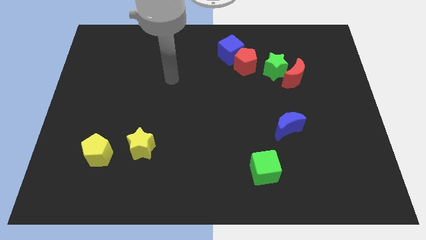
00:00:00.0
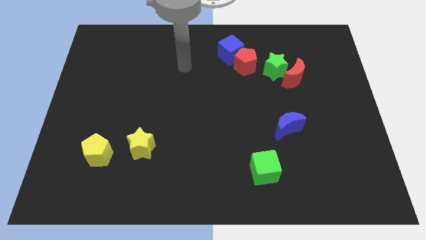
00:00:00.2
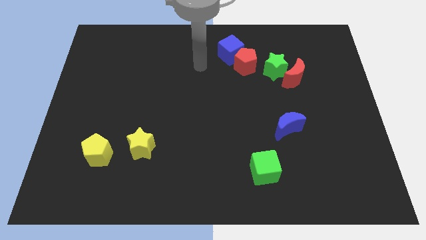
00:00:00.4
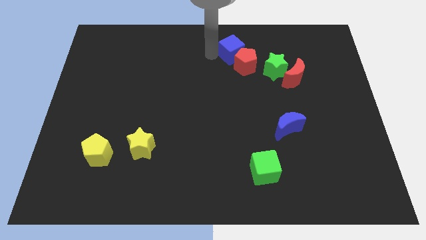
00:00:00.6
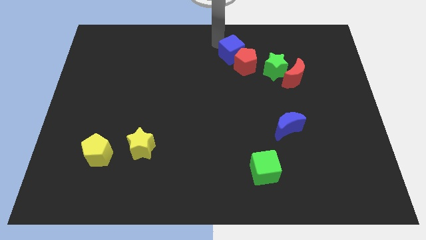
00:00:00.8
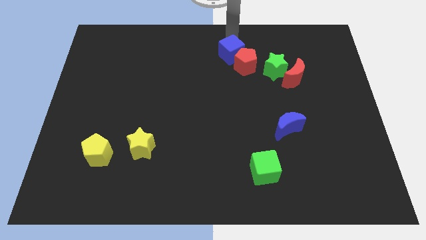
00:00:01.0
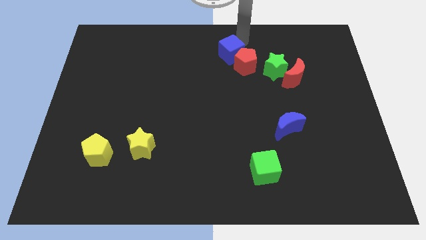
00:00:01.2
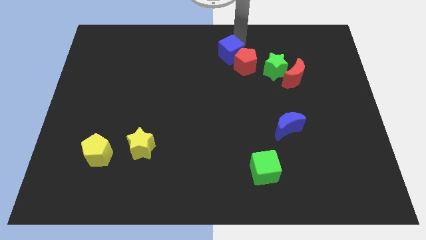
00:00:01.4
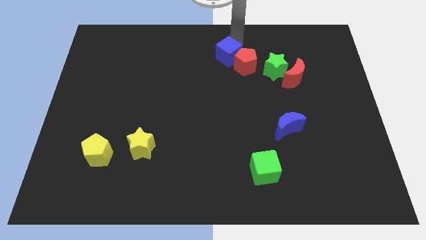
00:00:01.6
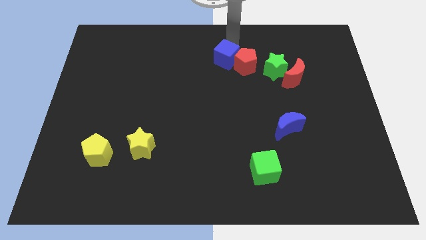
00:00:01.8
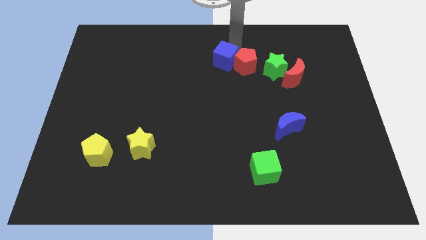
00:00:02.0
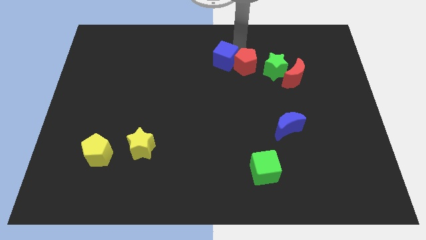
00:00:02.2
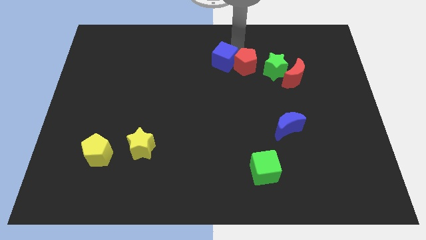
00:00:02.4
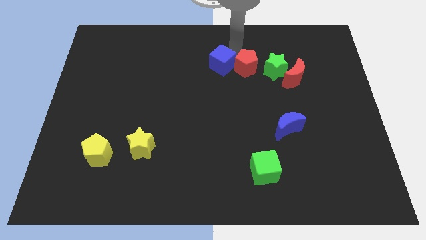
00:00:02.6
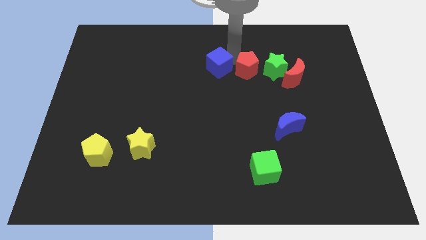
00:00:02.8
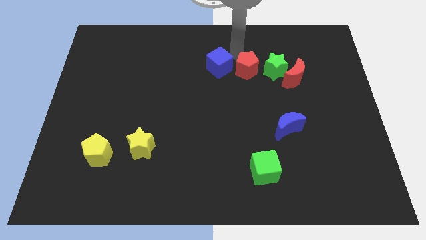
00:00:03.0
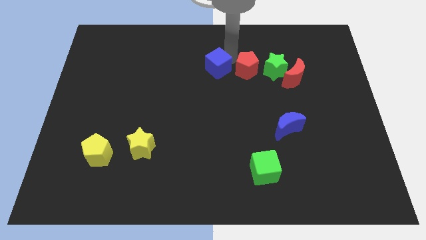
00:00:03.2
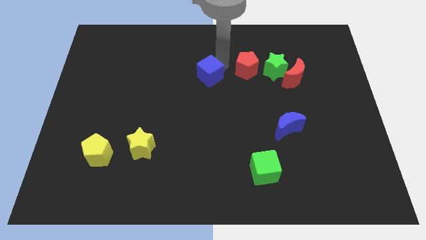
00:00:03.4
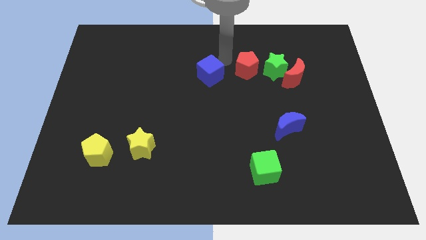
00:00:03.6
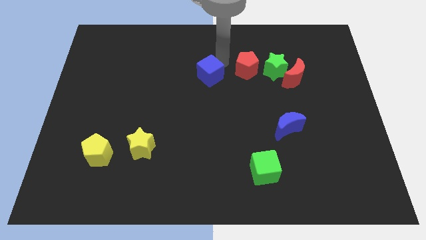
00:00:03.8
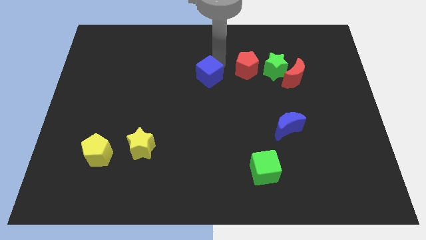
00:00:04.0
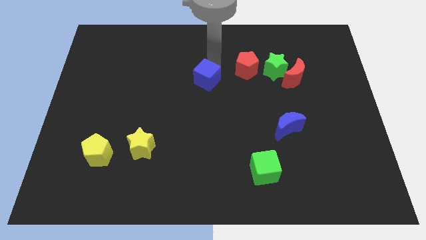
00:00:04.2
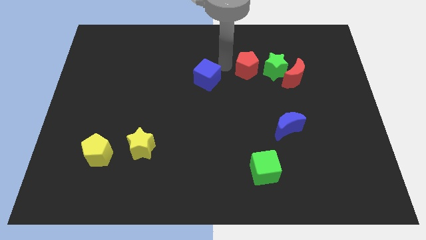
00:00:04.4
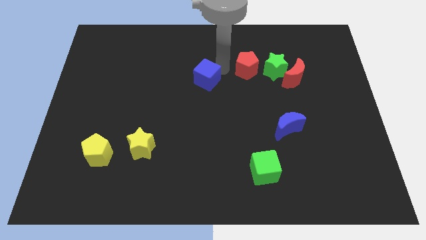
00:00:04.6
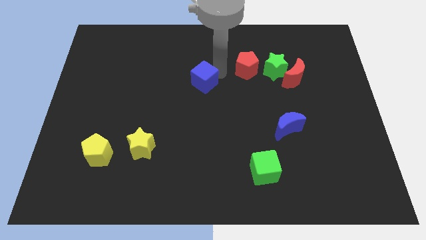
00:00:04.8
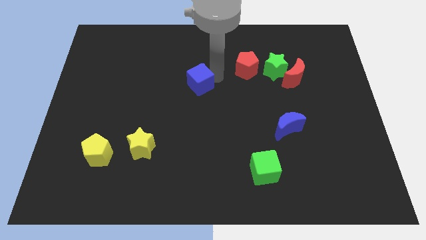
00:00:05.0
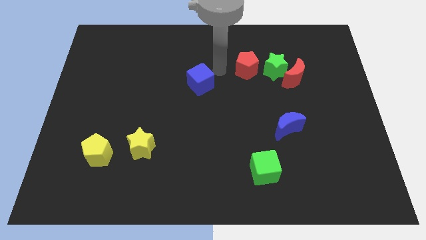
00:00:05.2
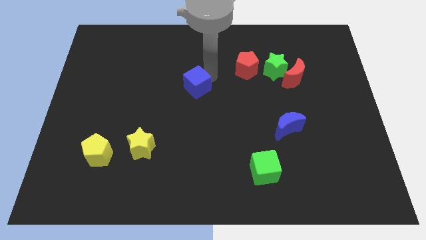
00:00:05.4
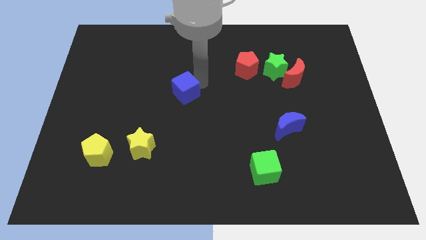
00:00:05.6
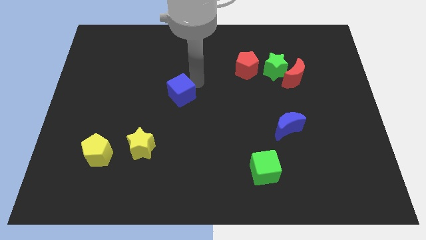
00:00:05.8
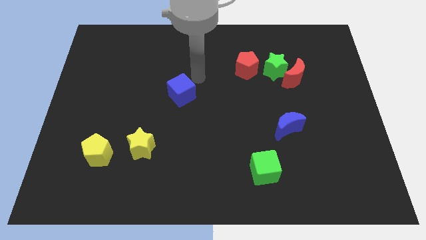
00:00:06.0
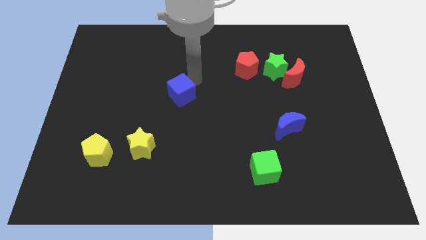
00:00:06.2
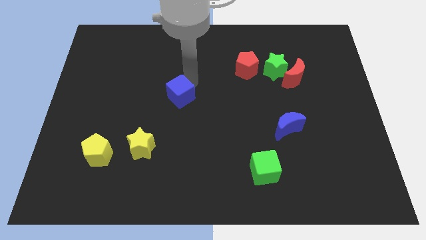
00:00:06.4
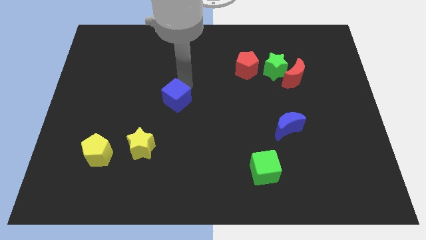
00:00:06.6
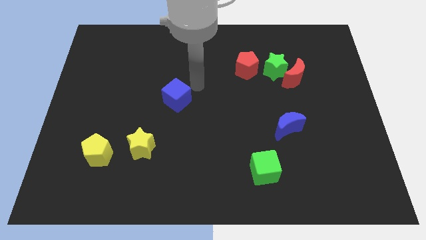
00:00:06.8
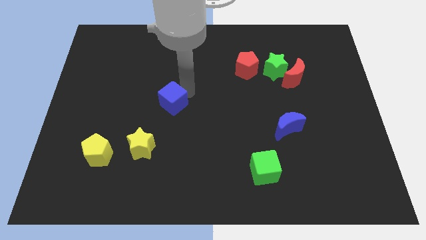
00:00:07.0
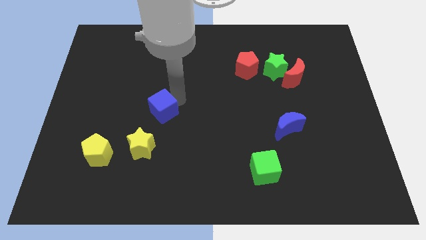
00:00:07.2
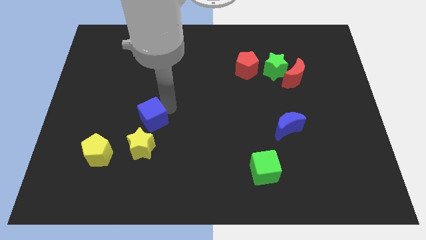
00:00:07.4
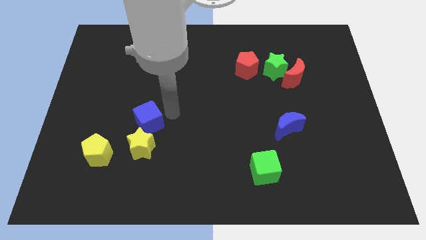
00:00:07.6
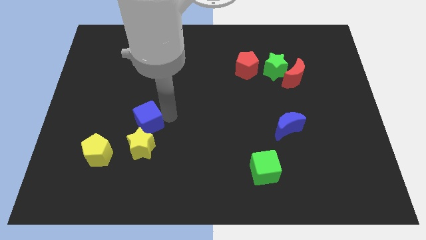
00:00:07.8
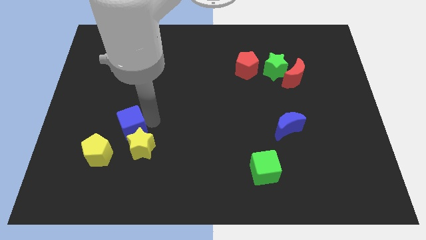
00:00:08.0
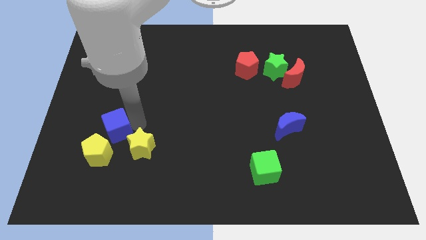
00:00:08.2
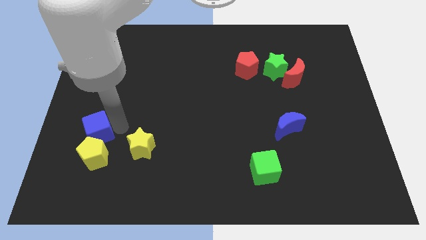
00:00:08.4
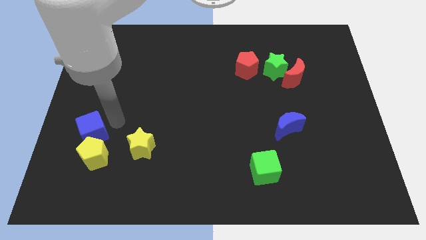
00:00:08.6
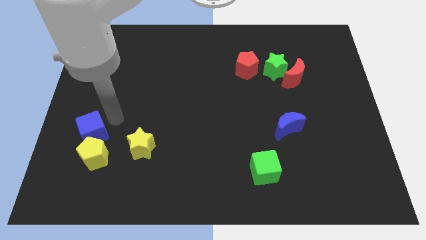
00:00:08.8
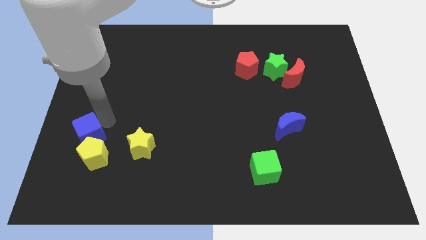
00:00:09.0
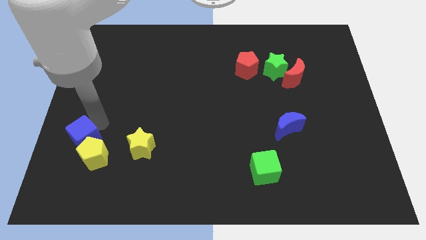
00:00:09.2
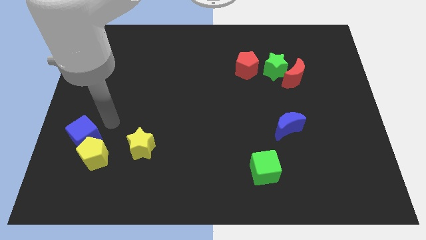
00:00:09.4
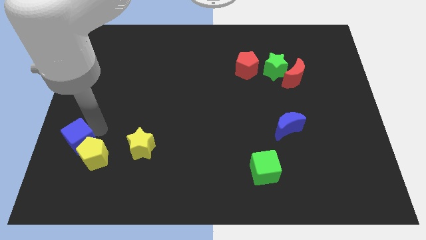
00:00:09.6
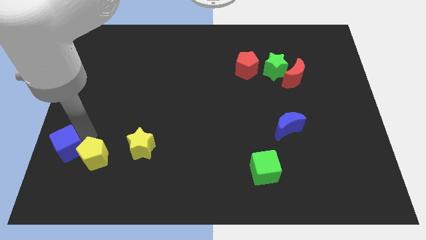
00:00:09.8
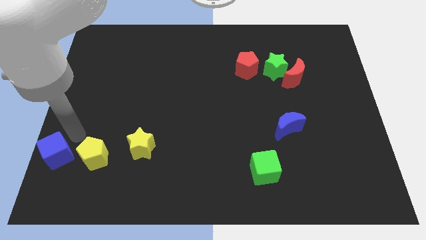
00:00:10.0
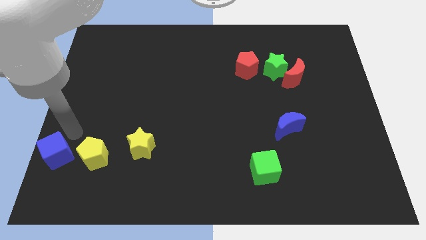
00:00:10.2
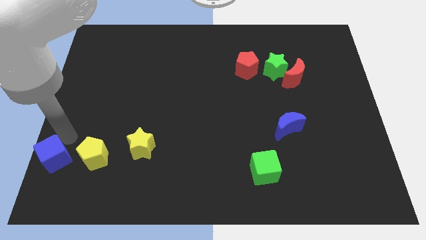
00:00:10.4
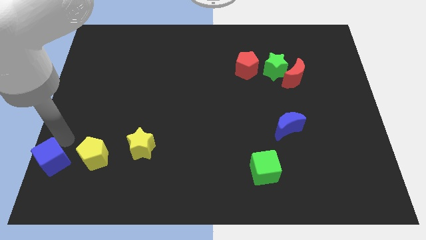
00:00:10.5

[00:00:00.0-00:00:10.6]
push the blue cube to the bottom left of the board
